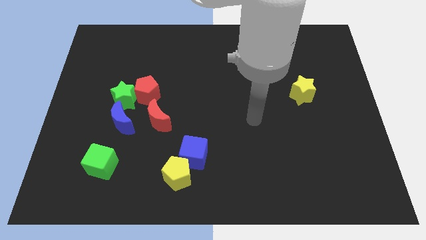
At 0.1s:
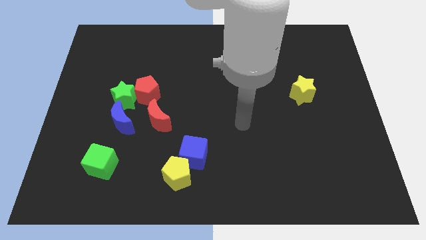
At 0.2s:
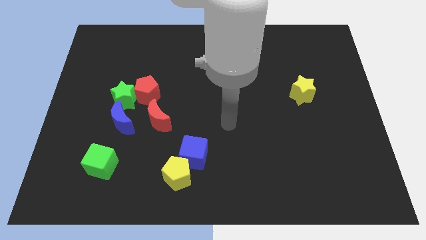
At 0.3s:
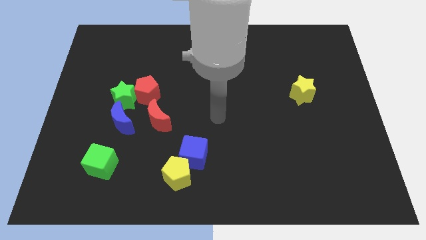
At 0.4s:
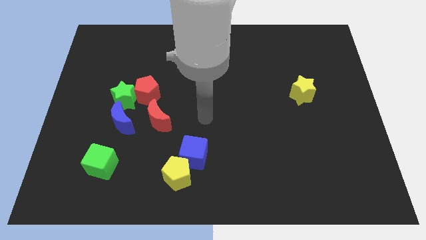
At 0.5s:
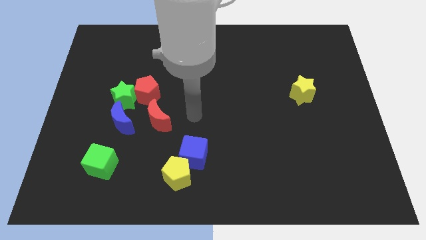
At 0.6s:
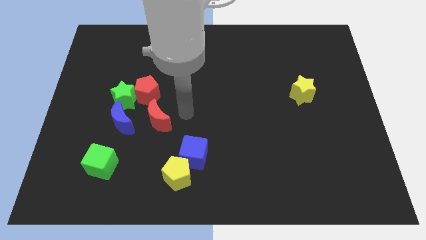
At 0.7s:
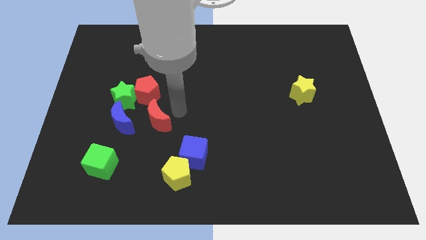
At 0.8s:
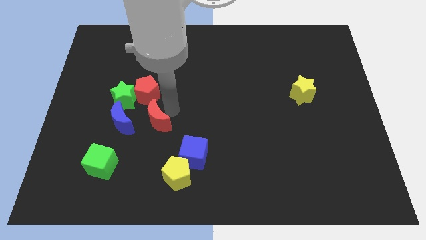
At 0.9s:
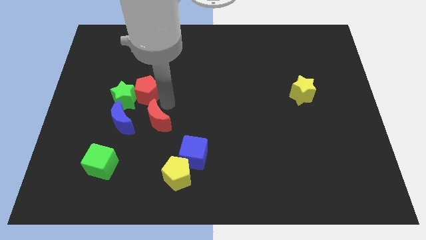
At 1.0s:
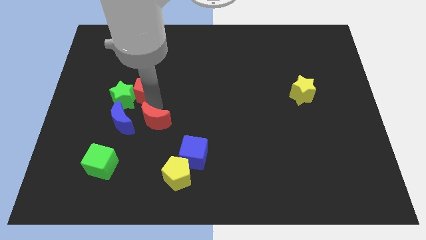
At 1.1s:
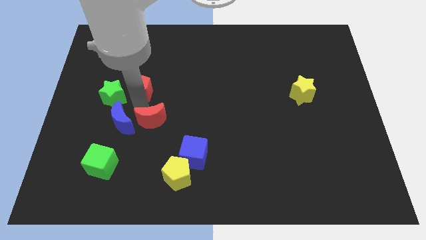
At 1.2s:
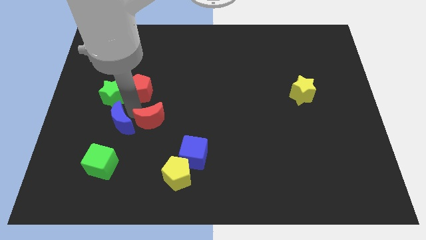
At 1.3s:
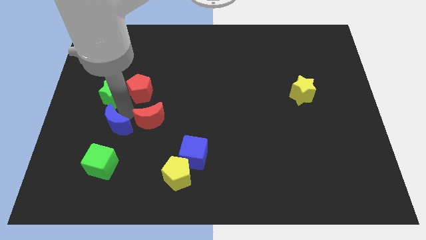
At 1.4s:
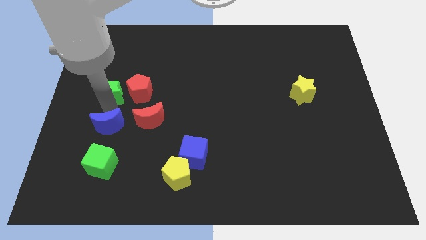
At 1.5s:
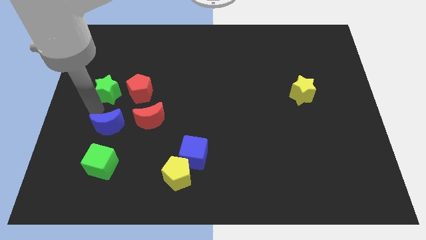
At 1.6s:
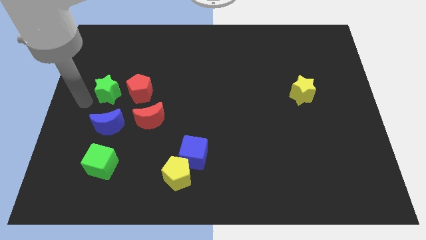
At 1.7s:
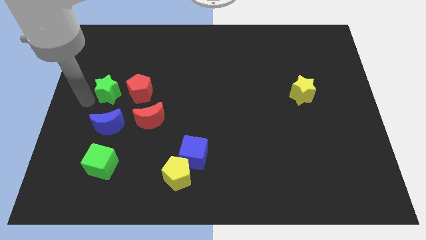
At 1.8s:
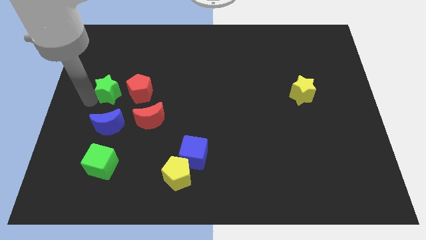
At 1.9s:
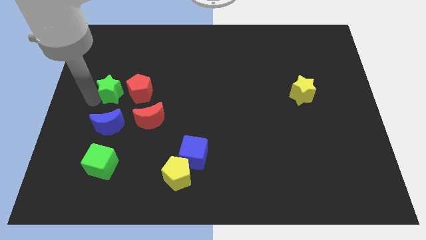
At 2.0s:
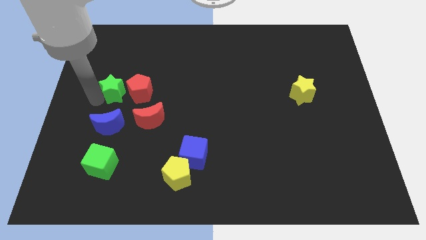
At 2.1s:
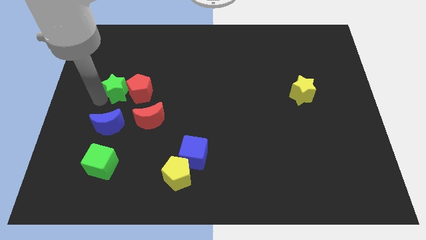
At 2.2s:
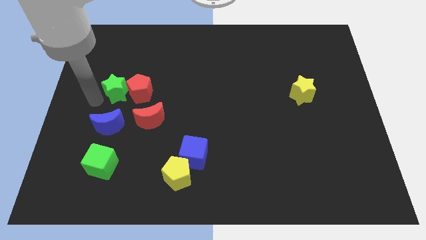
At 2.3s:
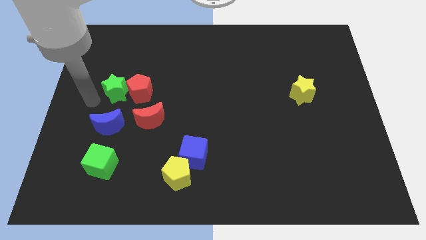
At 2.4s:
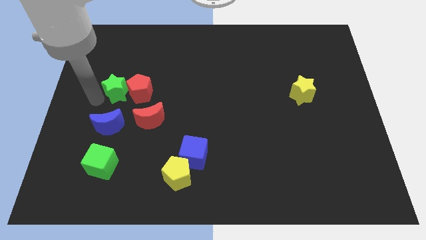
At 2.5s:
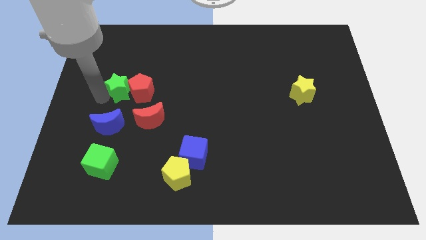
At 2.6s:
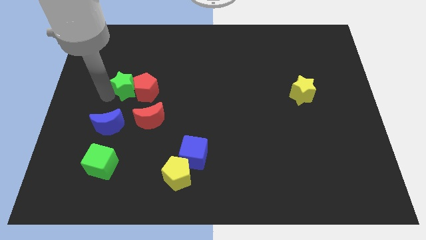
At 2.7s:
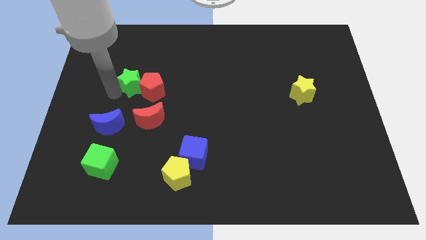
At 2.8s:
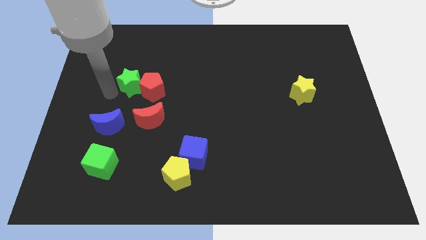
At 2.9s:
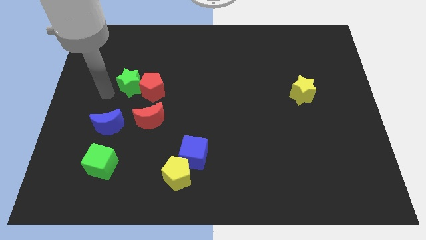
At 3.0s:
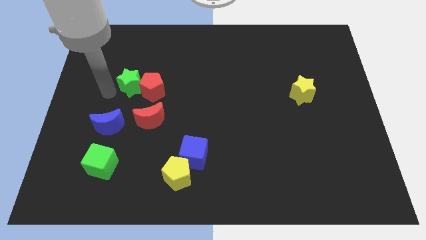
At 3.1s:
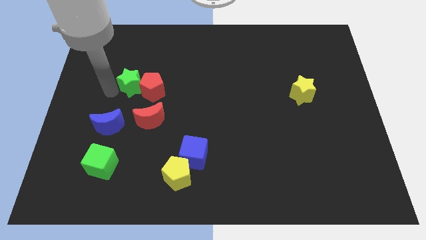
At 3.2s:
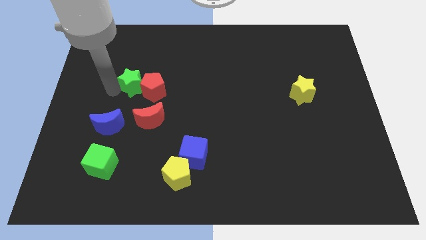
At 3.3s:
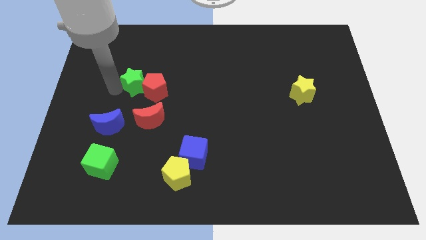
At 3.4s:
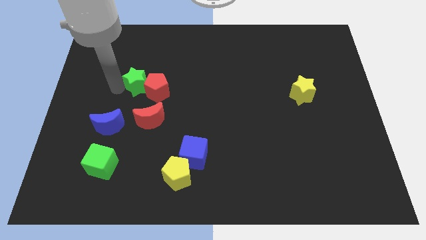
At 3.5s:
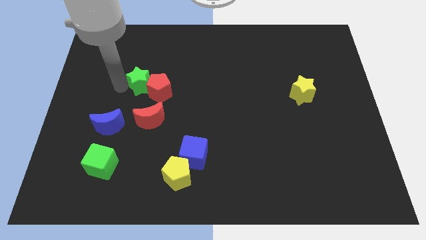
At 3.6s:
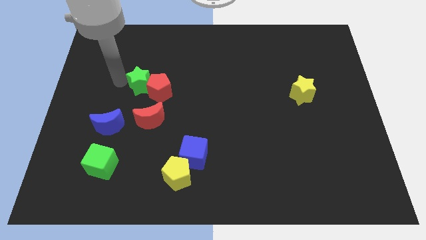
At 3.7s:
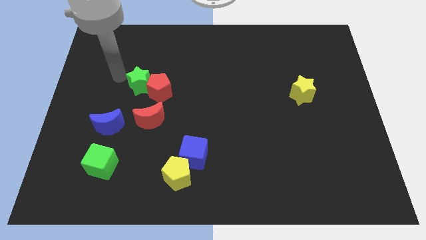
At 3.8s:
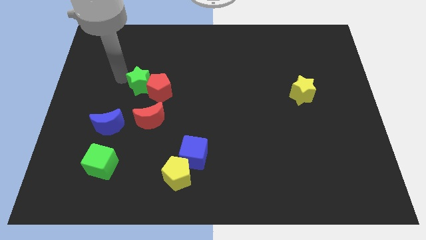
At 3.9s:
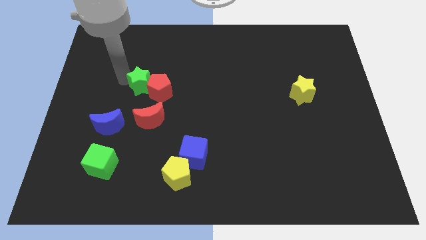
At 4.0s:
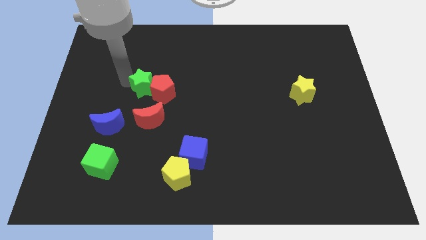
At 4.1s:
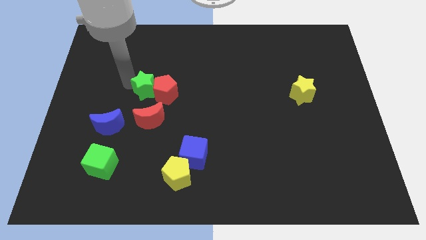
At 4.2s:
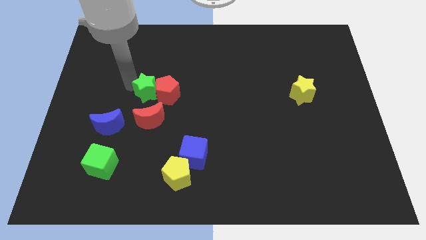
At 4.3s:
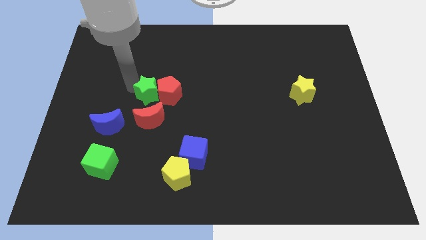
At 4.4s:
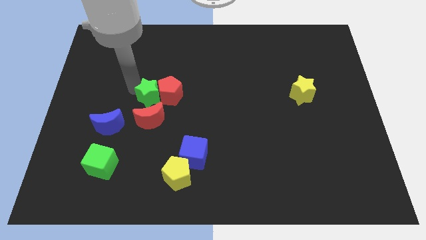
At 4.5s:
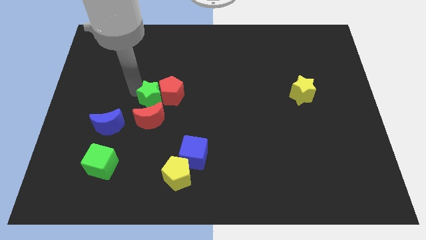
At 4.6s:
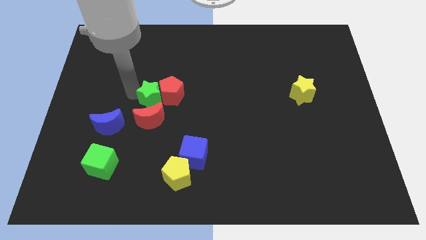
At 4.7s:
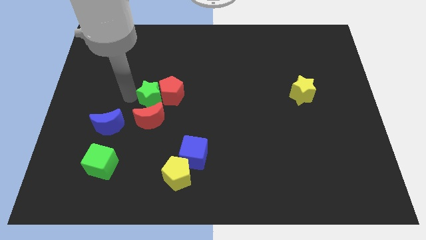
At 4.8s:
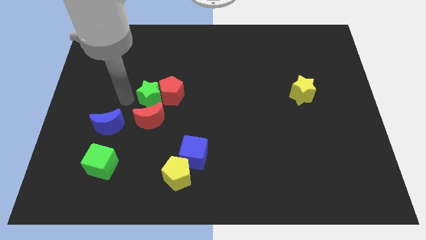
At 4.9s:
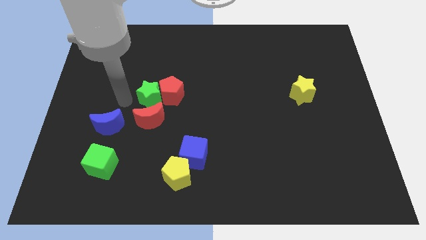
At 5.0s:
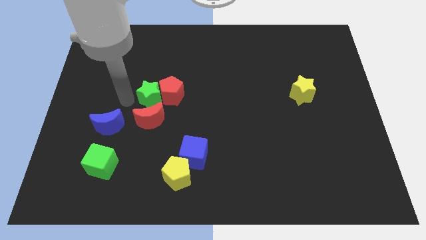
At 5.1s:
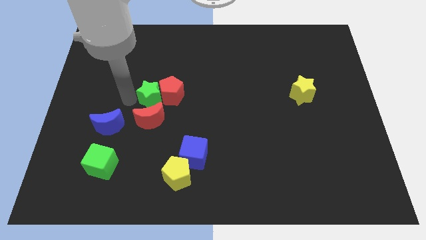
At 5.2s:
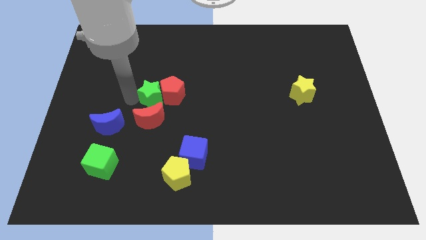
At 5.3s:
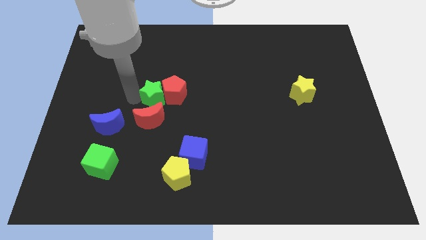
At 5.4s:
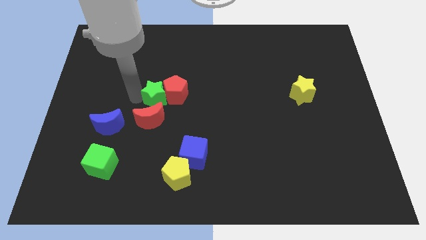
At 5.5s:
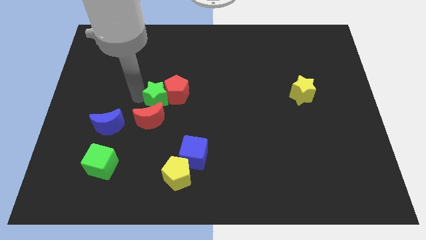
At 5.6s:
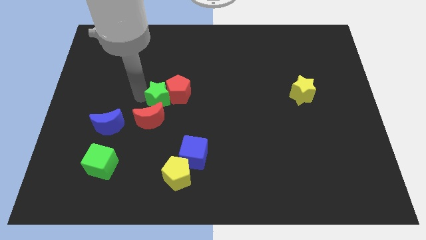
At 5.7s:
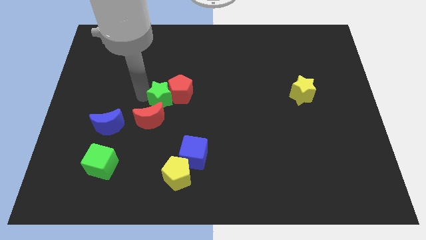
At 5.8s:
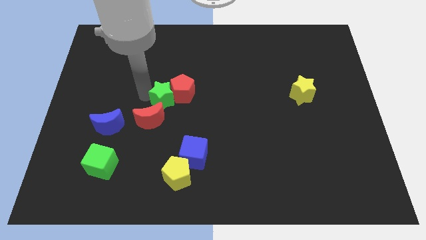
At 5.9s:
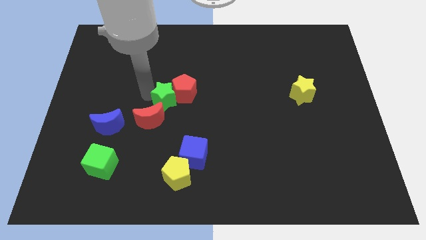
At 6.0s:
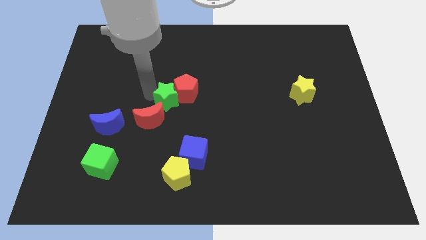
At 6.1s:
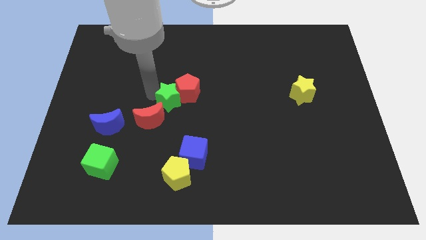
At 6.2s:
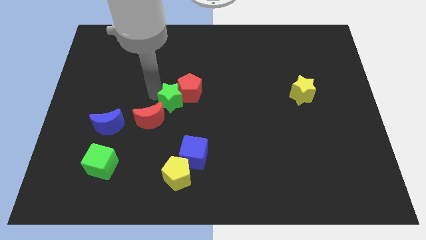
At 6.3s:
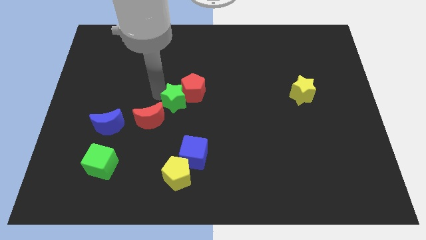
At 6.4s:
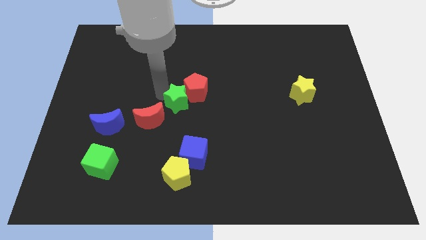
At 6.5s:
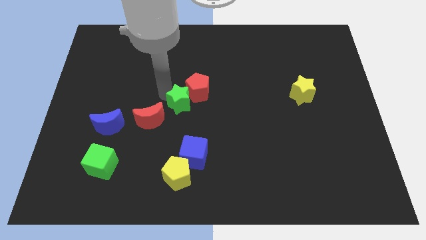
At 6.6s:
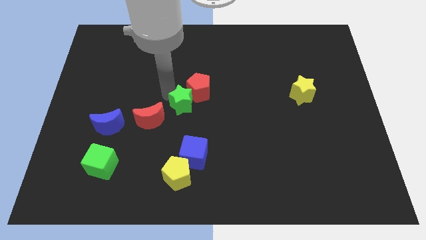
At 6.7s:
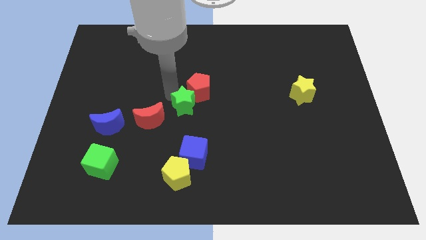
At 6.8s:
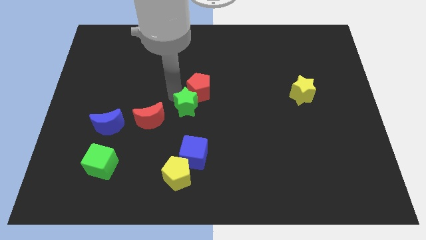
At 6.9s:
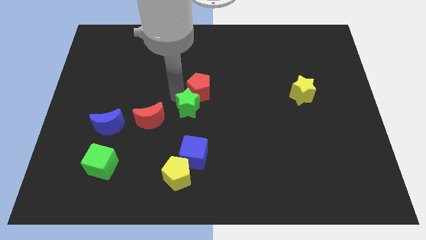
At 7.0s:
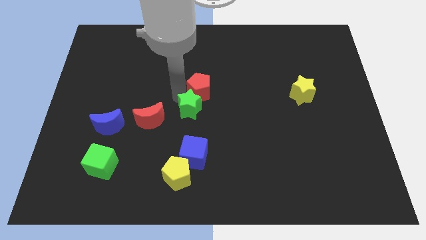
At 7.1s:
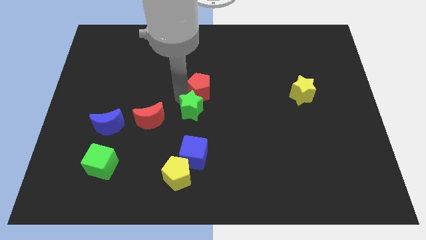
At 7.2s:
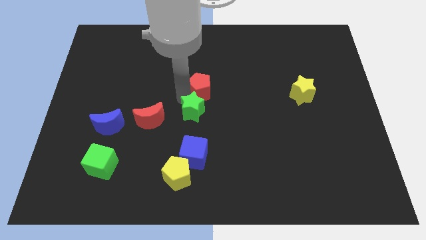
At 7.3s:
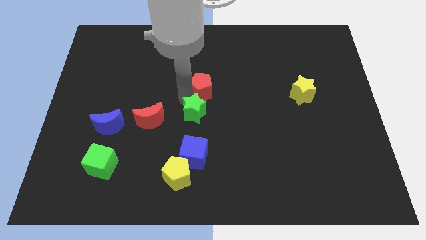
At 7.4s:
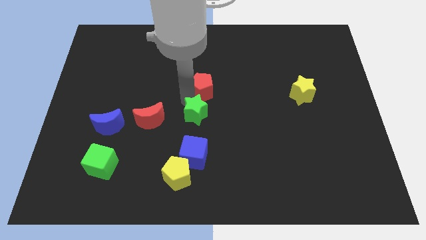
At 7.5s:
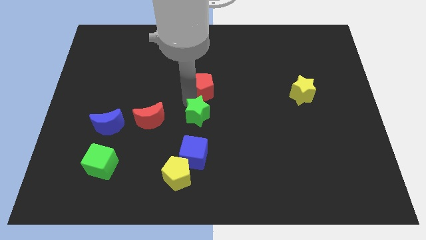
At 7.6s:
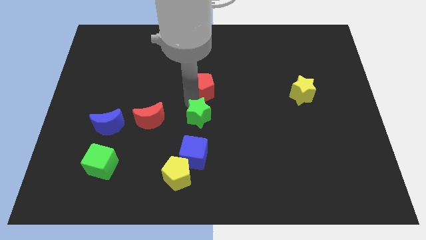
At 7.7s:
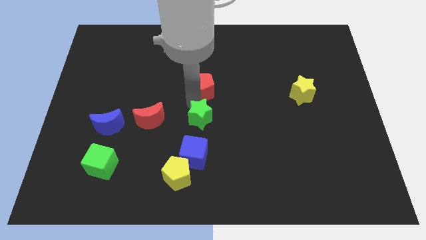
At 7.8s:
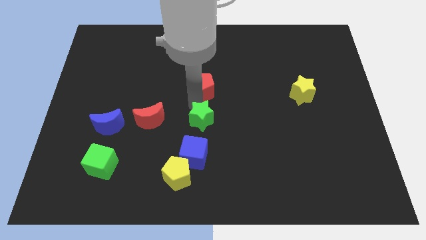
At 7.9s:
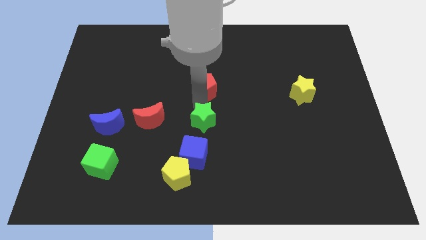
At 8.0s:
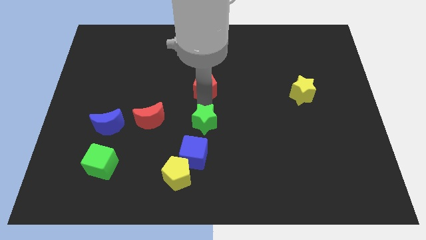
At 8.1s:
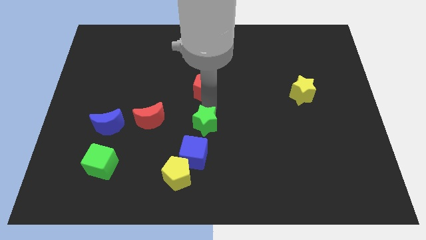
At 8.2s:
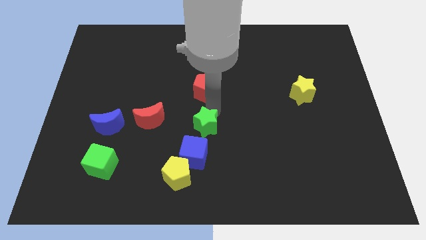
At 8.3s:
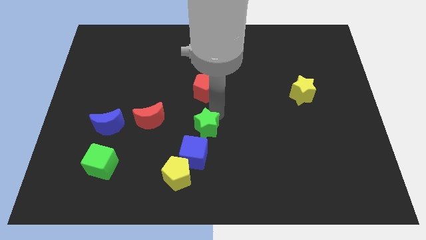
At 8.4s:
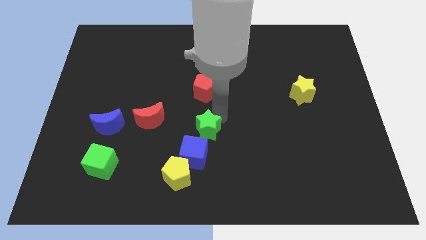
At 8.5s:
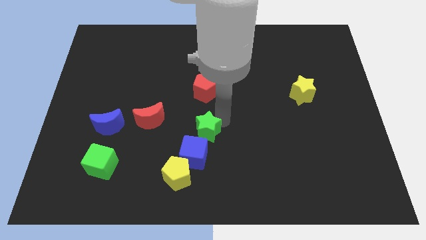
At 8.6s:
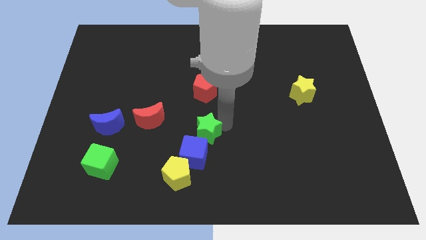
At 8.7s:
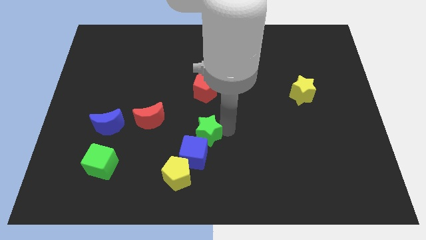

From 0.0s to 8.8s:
put the green star next to the blue cube
